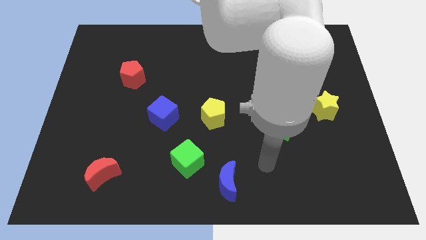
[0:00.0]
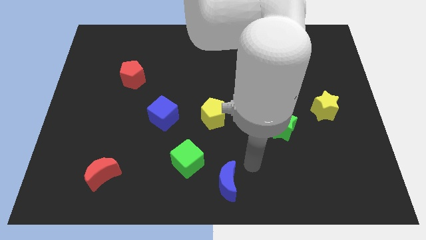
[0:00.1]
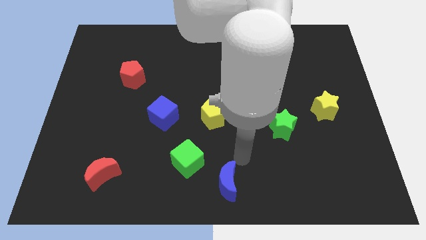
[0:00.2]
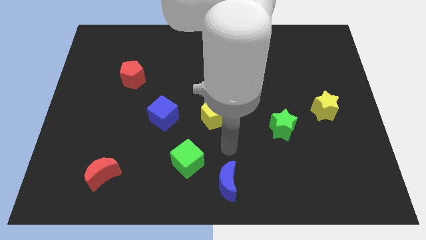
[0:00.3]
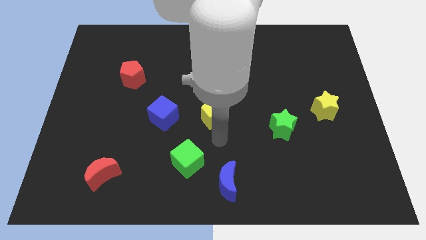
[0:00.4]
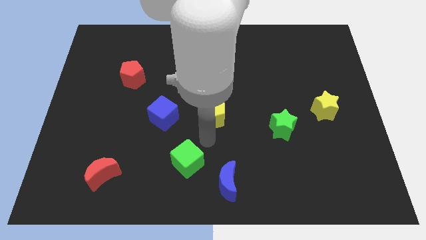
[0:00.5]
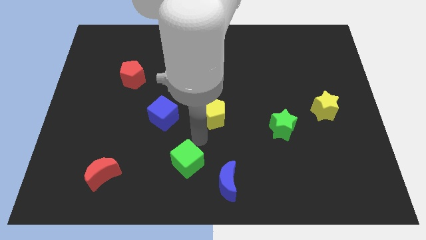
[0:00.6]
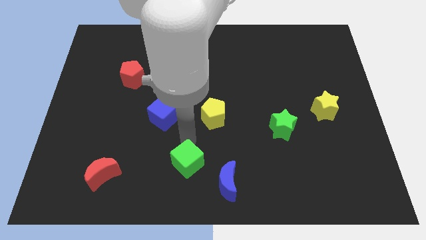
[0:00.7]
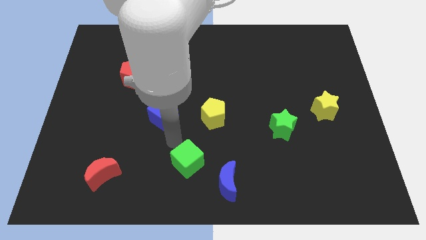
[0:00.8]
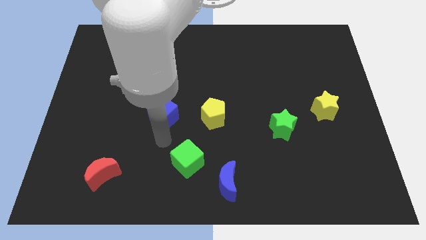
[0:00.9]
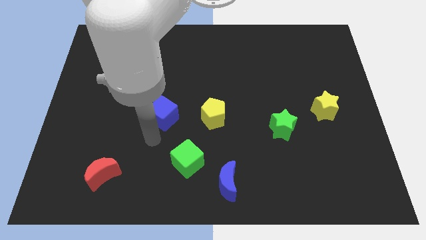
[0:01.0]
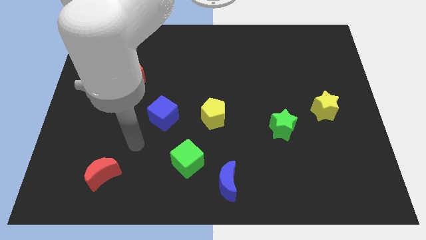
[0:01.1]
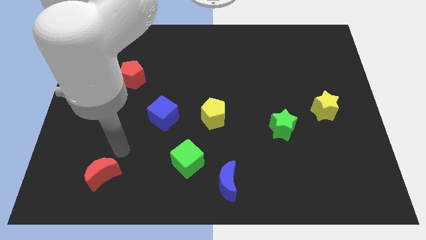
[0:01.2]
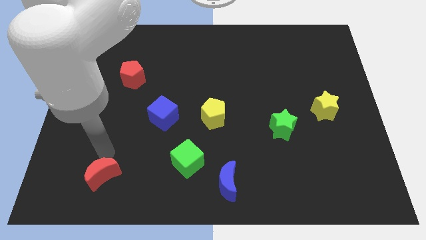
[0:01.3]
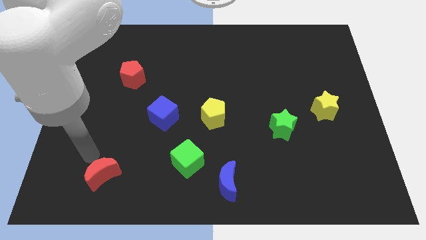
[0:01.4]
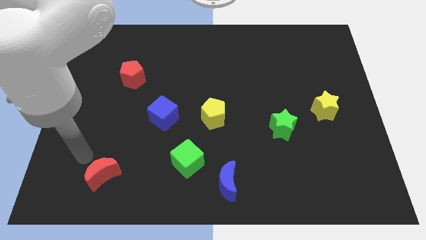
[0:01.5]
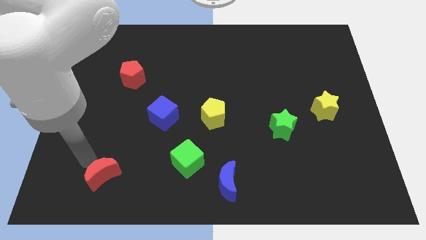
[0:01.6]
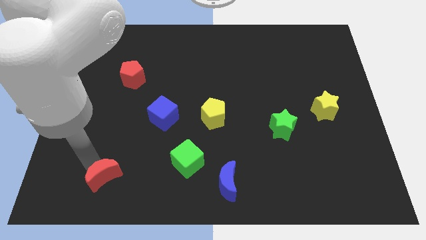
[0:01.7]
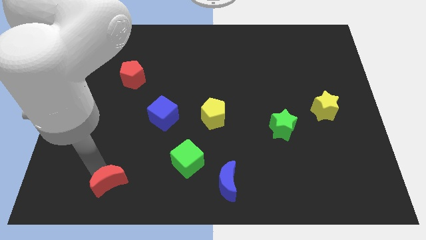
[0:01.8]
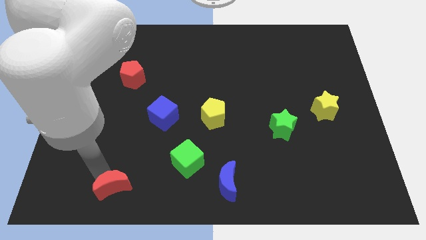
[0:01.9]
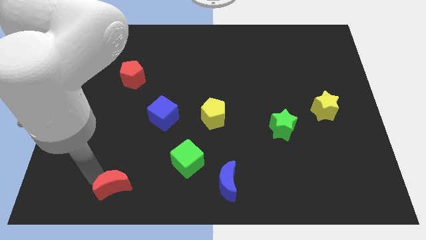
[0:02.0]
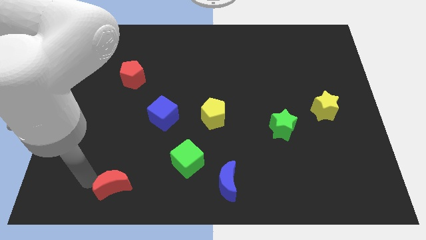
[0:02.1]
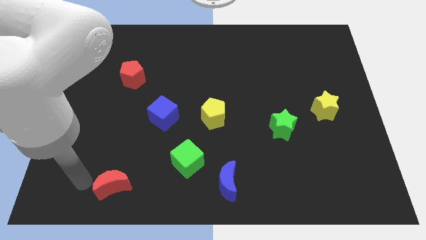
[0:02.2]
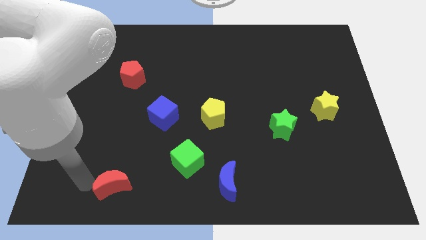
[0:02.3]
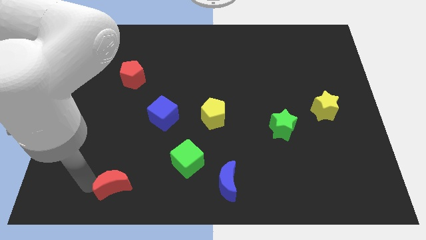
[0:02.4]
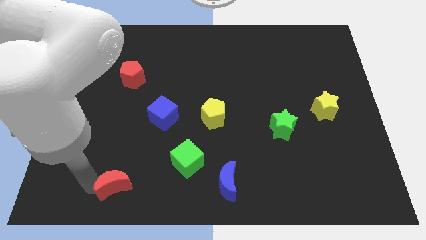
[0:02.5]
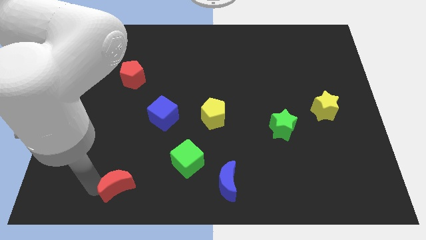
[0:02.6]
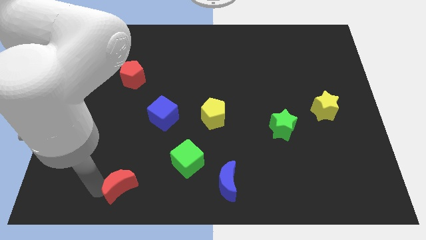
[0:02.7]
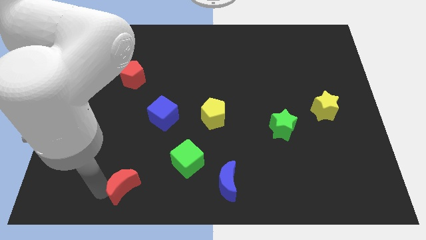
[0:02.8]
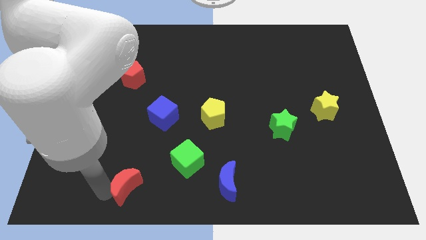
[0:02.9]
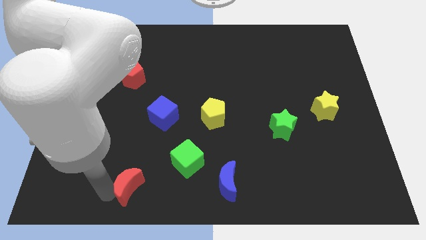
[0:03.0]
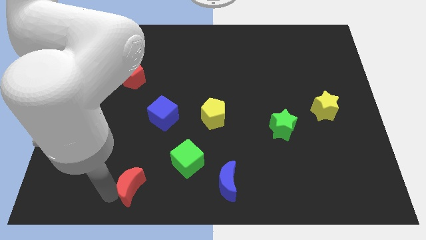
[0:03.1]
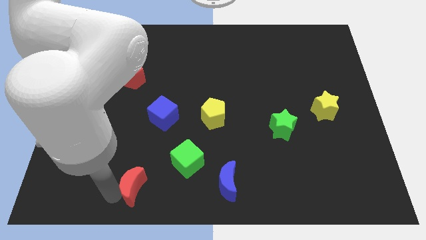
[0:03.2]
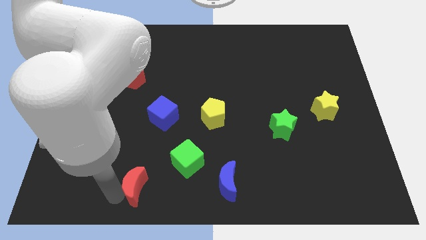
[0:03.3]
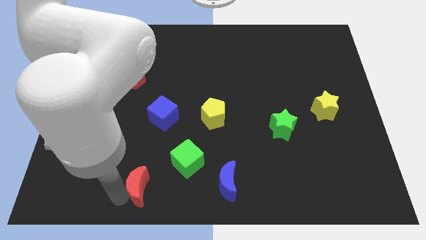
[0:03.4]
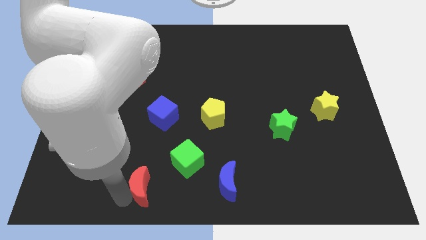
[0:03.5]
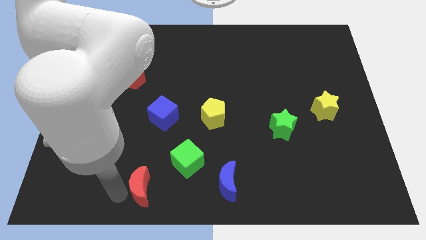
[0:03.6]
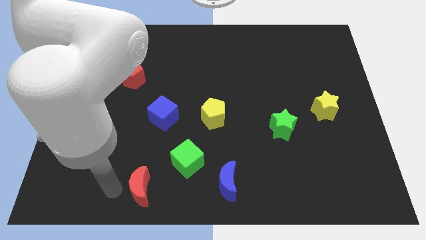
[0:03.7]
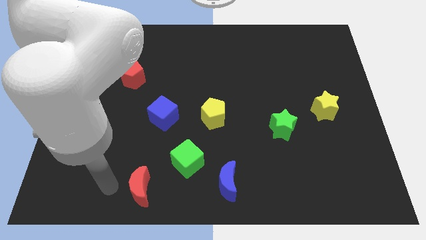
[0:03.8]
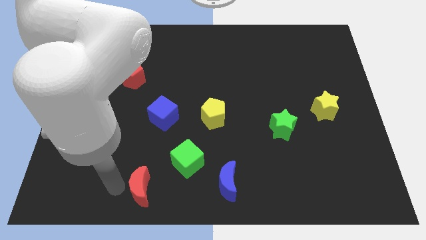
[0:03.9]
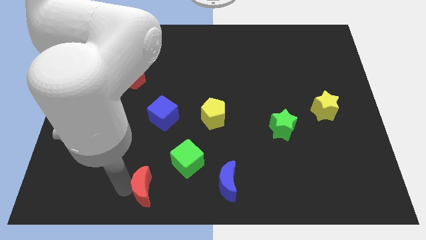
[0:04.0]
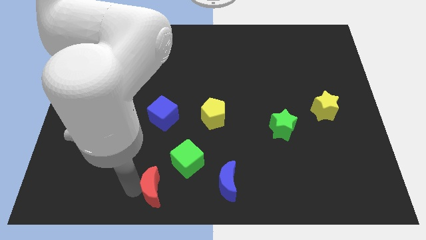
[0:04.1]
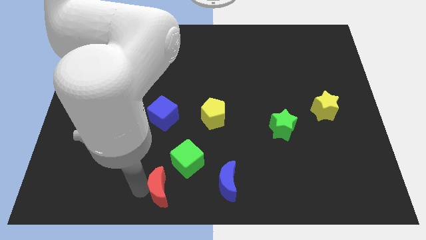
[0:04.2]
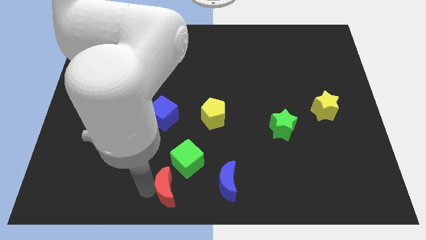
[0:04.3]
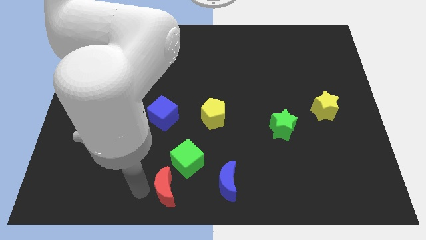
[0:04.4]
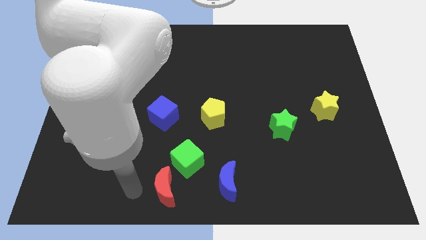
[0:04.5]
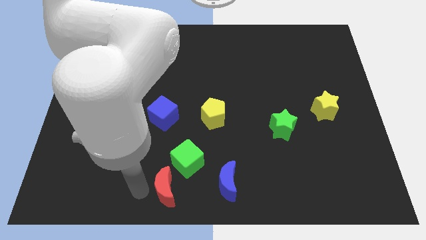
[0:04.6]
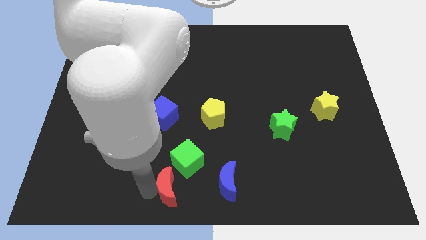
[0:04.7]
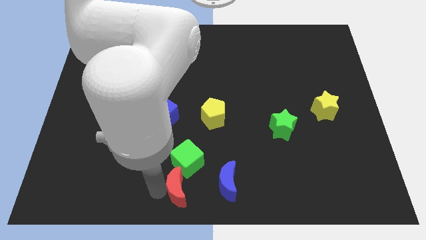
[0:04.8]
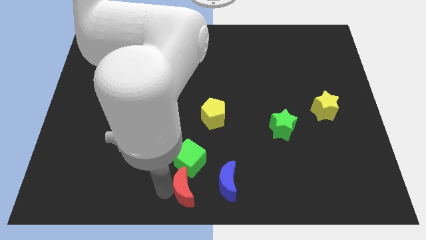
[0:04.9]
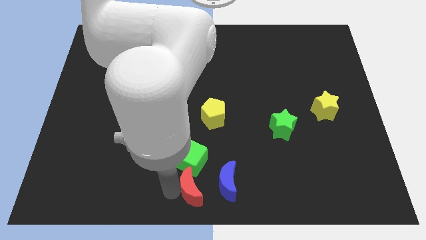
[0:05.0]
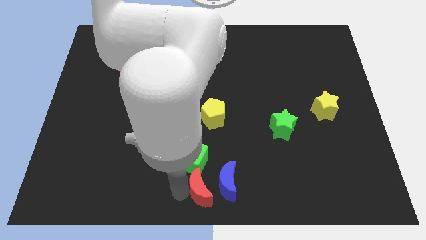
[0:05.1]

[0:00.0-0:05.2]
push the red moon to the blue moon

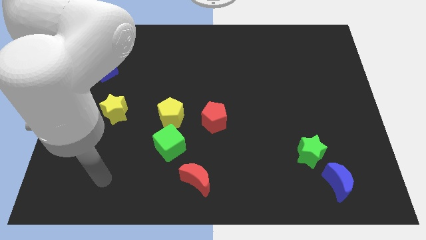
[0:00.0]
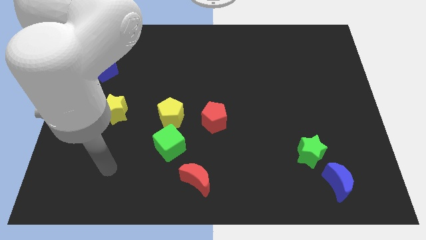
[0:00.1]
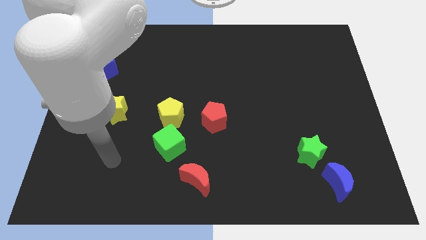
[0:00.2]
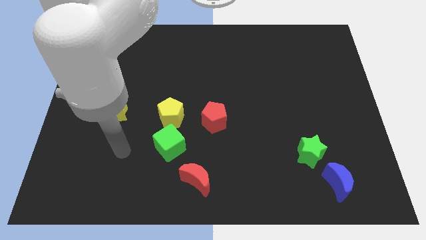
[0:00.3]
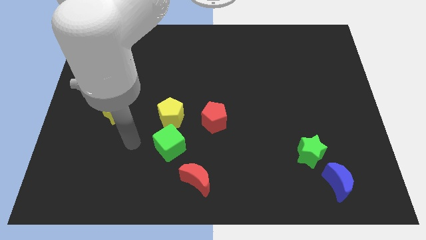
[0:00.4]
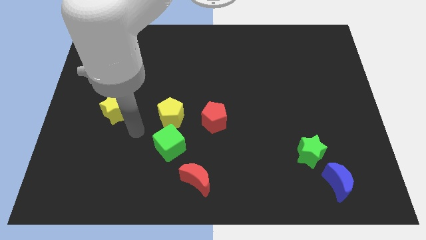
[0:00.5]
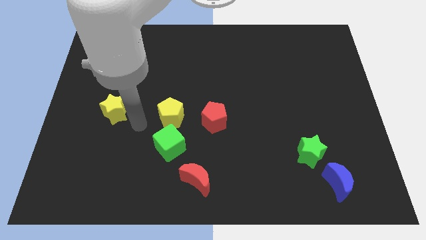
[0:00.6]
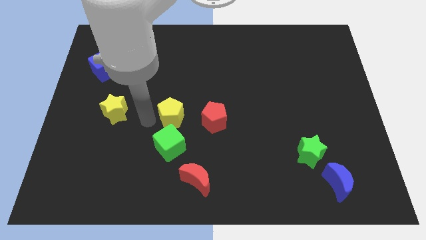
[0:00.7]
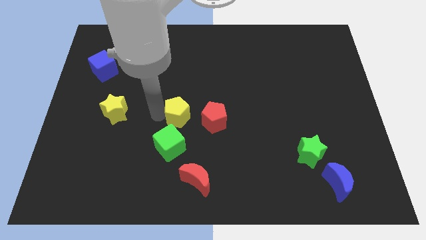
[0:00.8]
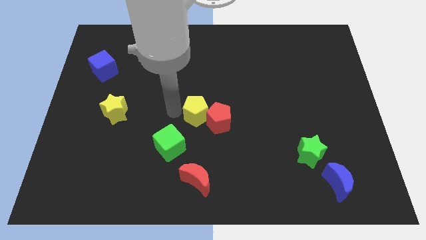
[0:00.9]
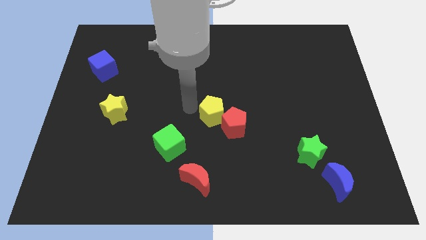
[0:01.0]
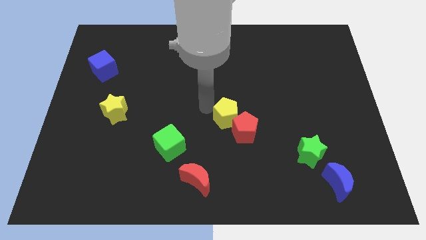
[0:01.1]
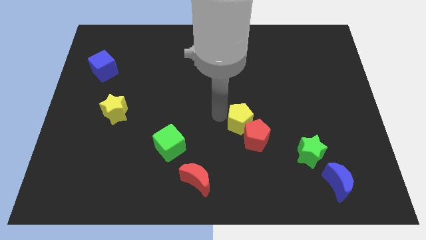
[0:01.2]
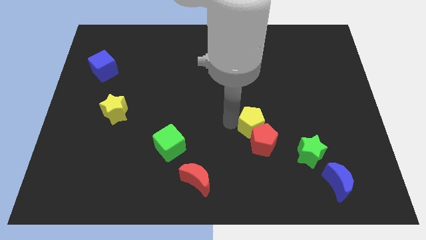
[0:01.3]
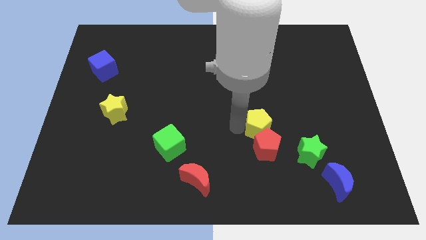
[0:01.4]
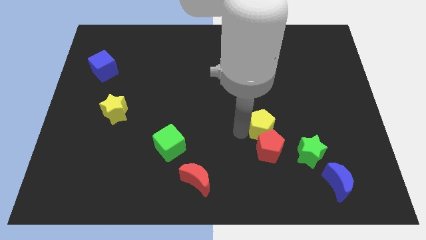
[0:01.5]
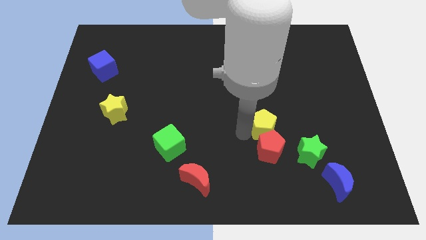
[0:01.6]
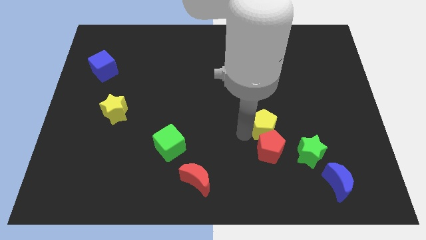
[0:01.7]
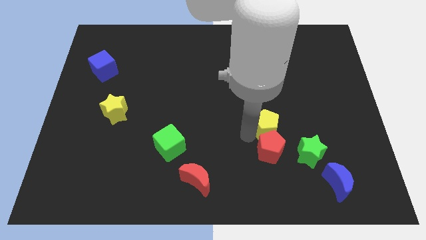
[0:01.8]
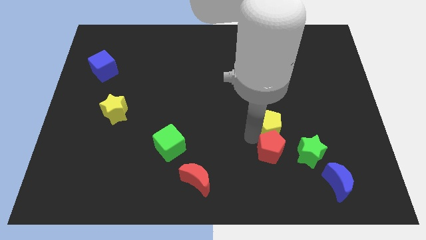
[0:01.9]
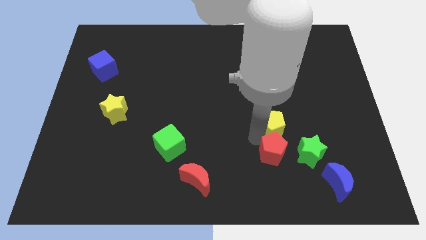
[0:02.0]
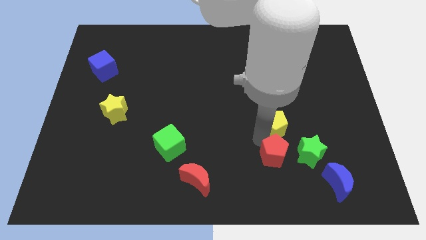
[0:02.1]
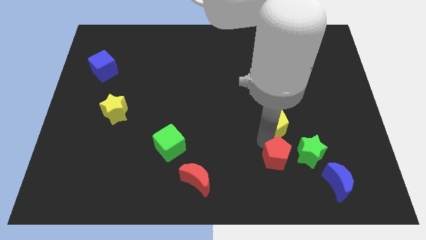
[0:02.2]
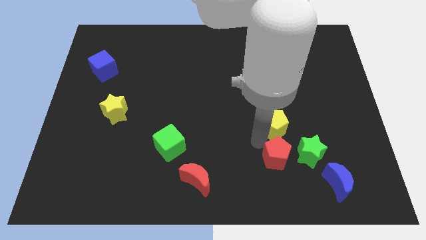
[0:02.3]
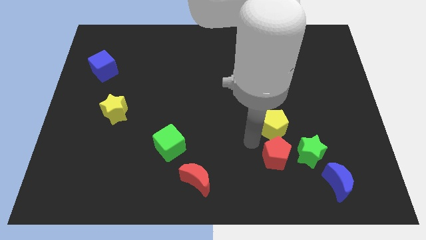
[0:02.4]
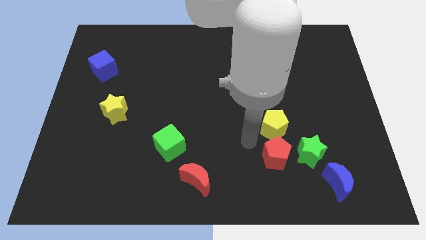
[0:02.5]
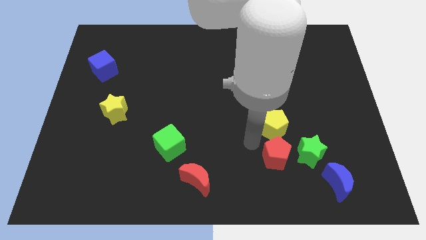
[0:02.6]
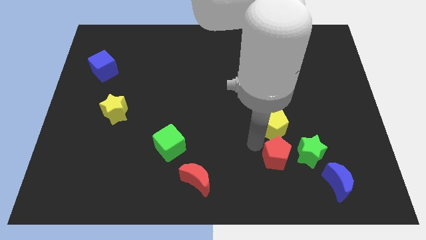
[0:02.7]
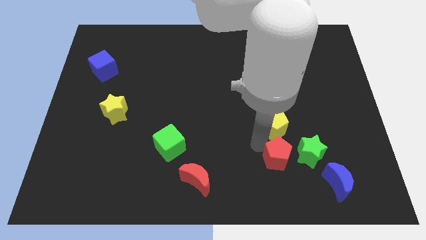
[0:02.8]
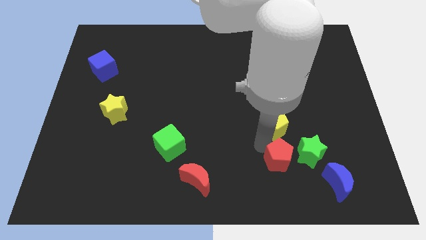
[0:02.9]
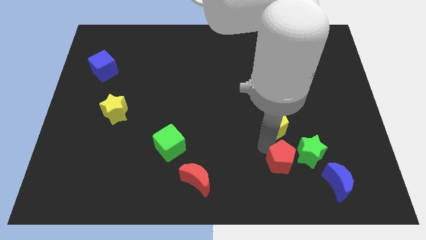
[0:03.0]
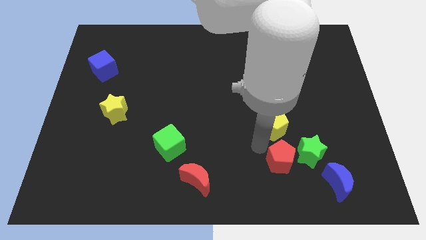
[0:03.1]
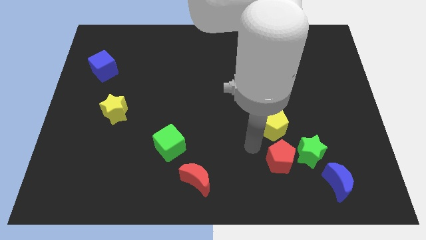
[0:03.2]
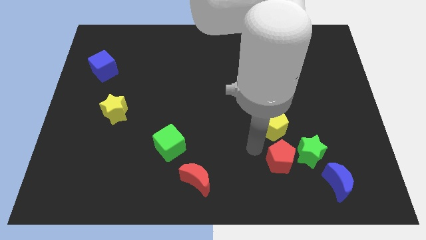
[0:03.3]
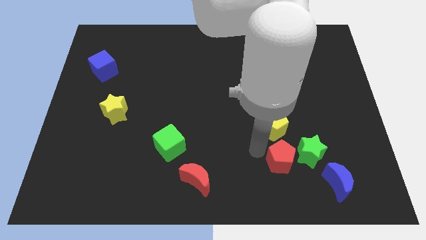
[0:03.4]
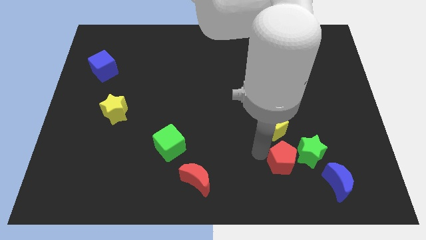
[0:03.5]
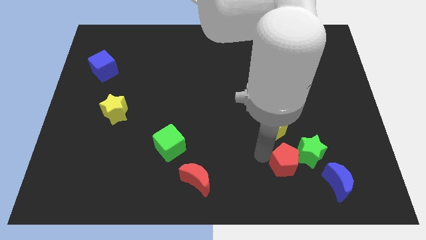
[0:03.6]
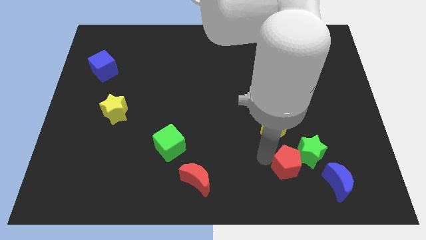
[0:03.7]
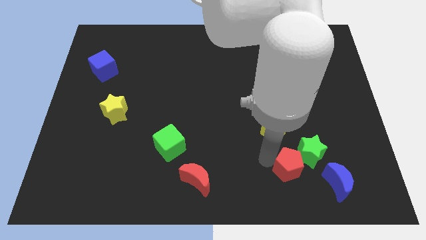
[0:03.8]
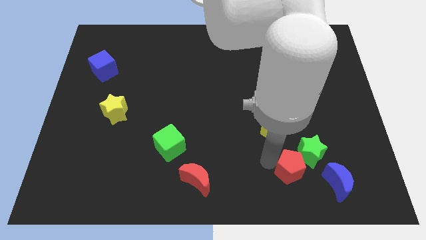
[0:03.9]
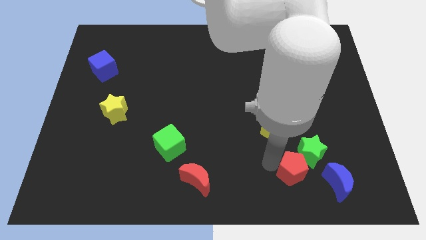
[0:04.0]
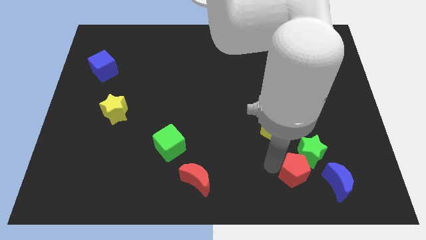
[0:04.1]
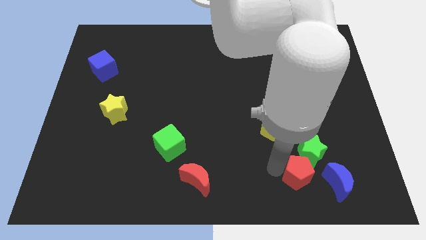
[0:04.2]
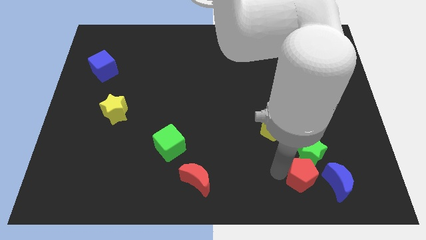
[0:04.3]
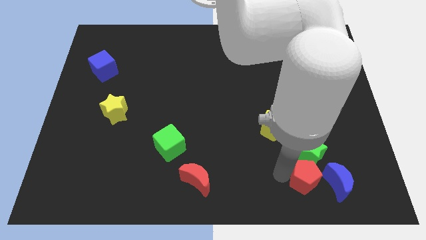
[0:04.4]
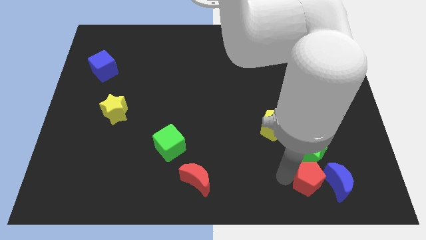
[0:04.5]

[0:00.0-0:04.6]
put the red pentagon towards the blue moon
